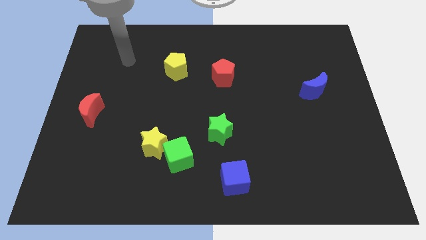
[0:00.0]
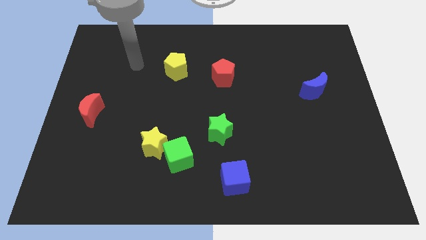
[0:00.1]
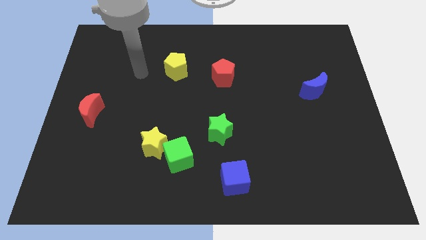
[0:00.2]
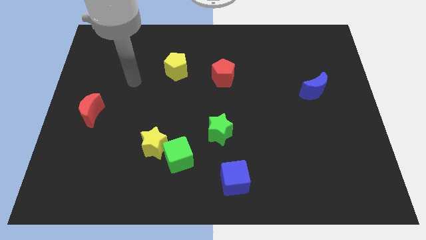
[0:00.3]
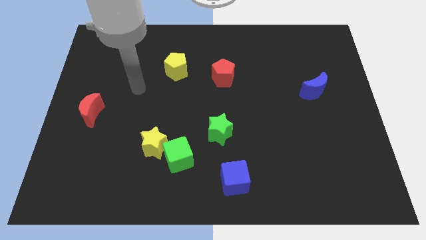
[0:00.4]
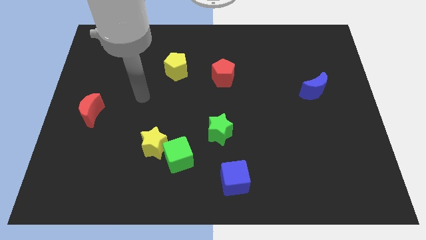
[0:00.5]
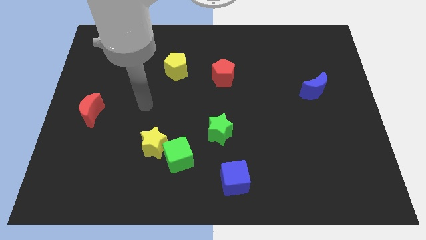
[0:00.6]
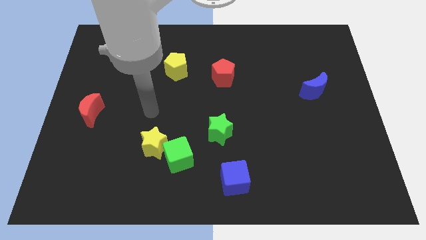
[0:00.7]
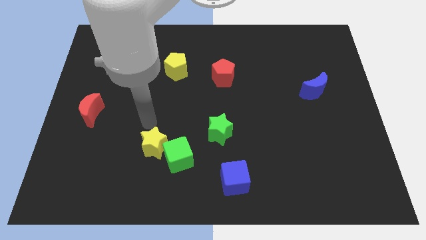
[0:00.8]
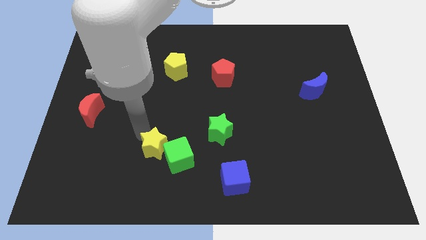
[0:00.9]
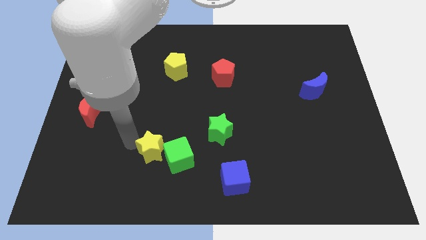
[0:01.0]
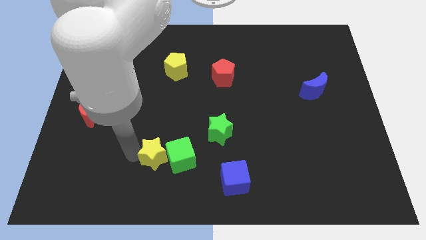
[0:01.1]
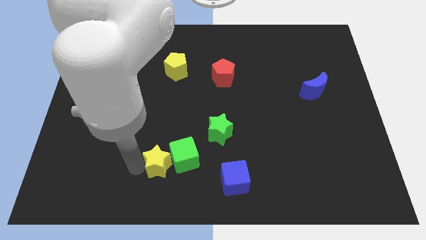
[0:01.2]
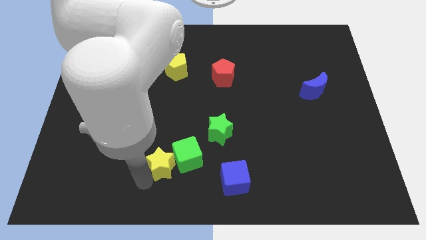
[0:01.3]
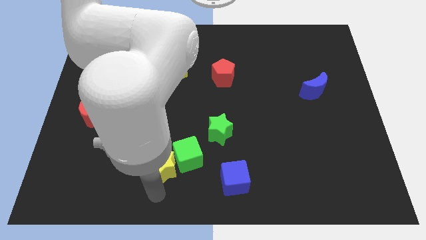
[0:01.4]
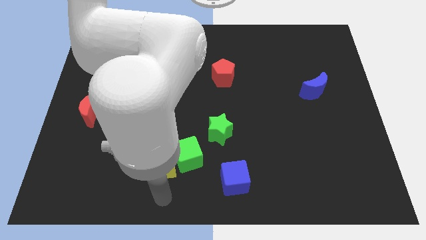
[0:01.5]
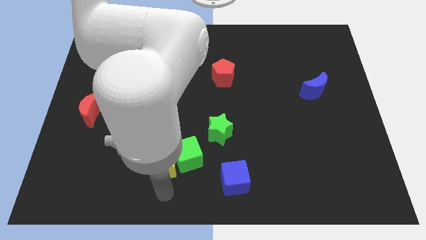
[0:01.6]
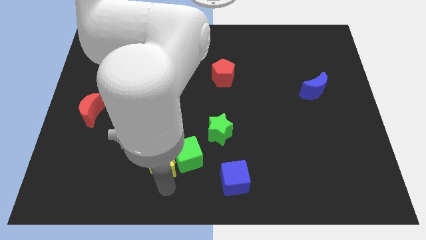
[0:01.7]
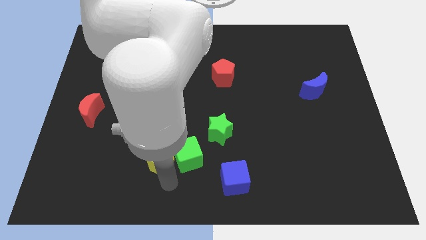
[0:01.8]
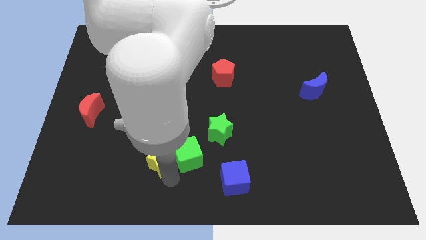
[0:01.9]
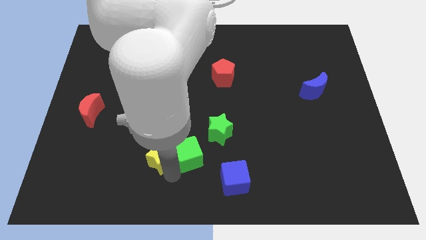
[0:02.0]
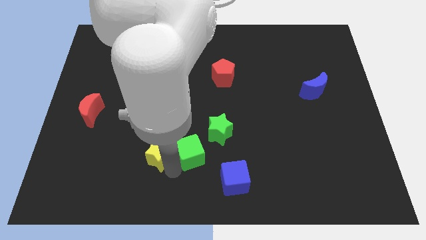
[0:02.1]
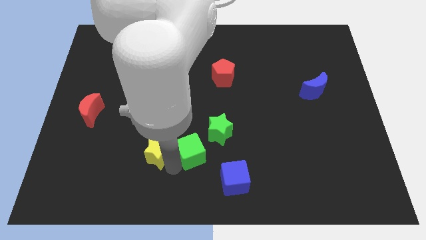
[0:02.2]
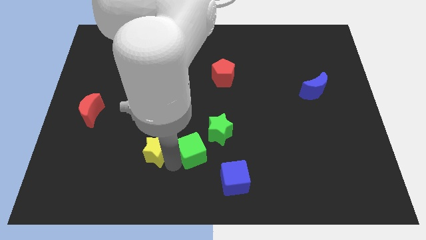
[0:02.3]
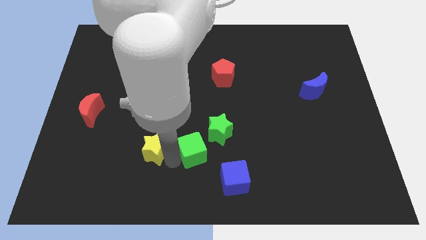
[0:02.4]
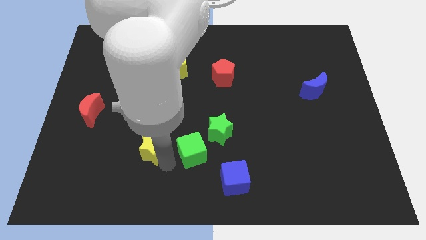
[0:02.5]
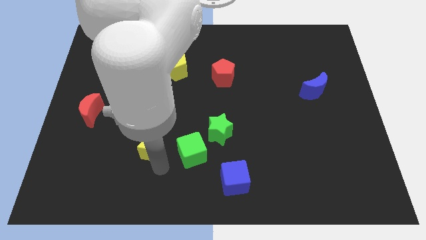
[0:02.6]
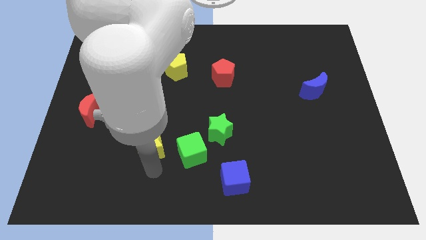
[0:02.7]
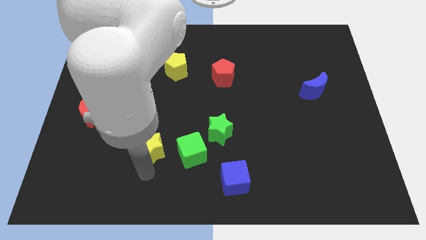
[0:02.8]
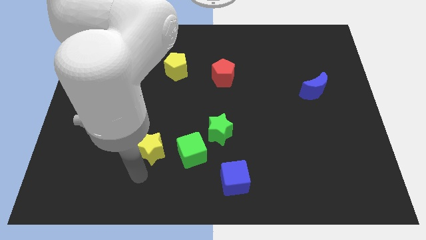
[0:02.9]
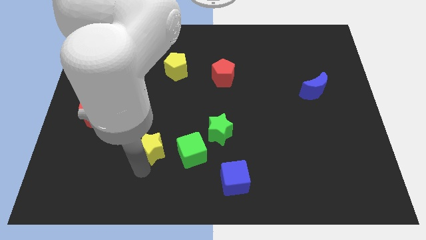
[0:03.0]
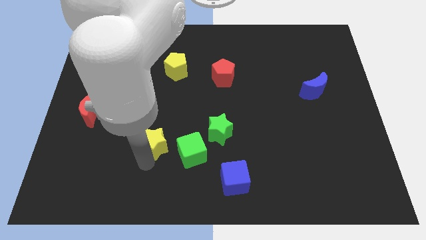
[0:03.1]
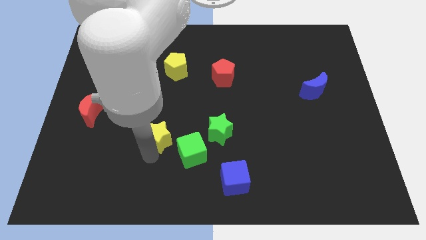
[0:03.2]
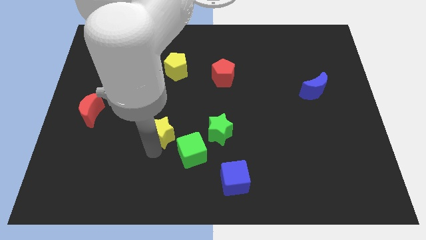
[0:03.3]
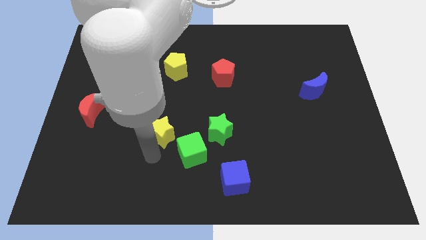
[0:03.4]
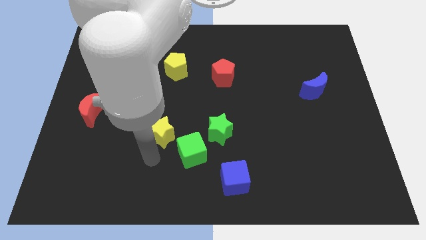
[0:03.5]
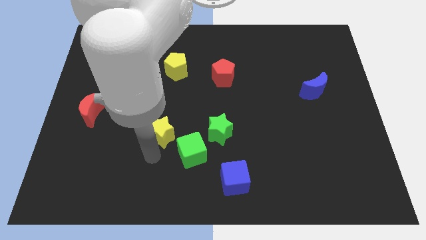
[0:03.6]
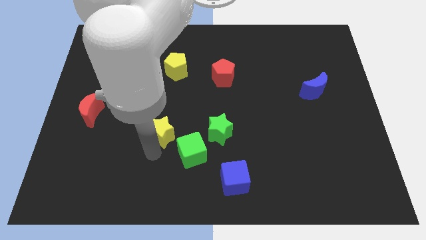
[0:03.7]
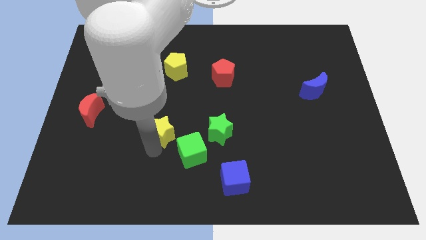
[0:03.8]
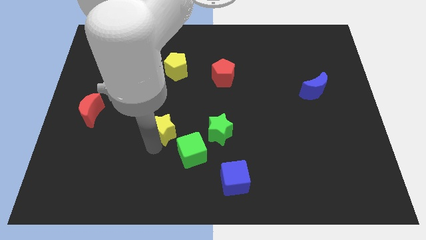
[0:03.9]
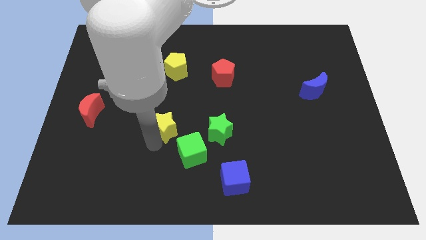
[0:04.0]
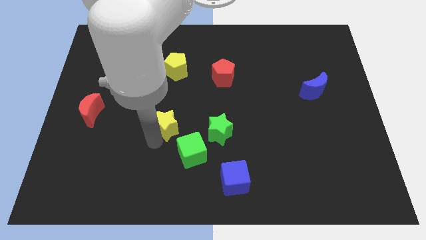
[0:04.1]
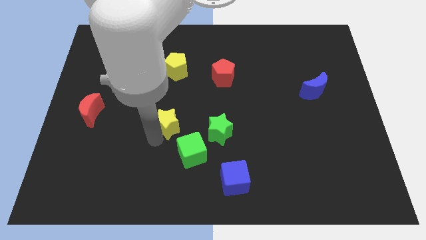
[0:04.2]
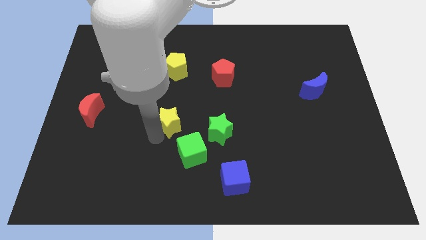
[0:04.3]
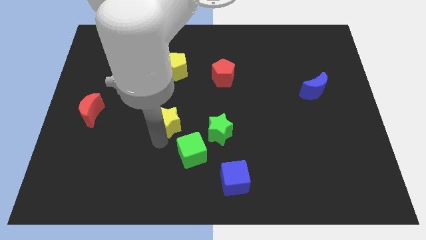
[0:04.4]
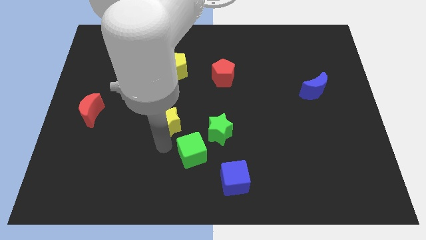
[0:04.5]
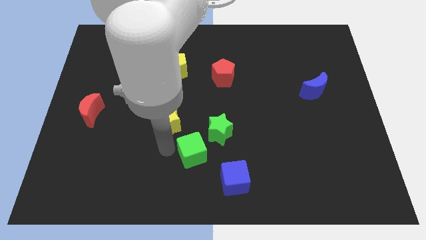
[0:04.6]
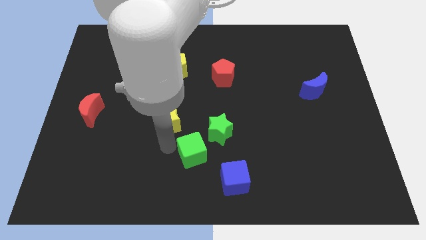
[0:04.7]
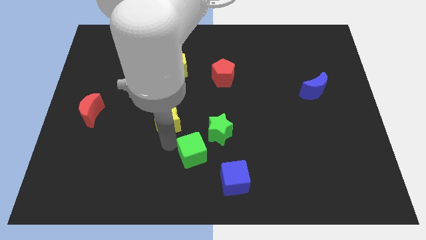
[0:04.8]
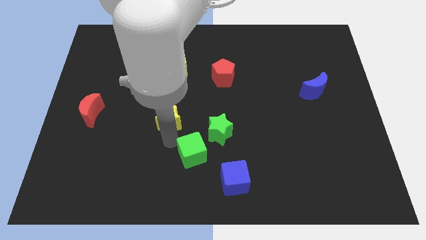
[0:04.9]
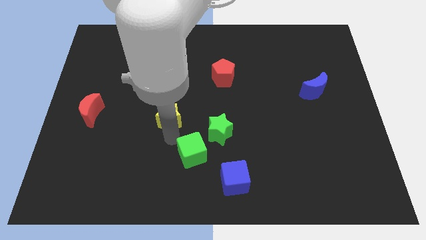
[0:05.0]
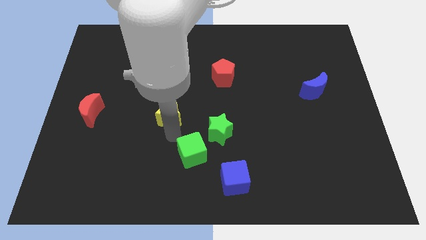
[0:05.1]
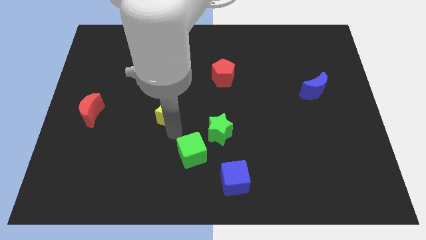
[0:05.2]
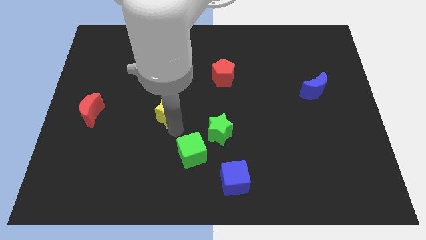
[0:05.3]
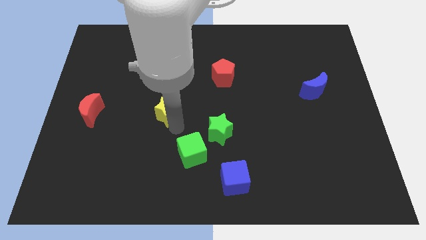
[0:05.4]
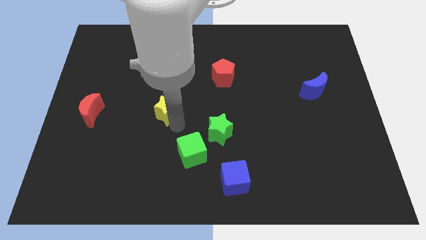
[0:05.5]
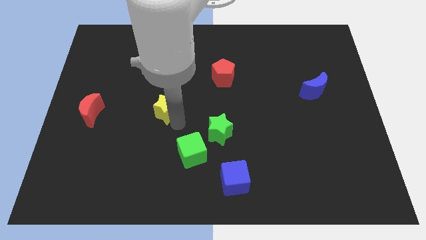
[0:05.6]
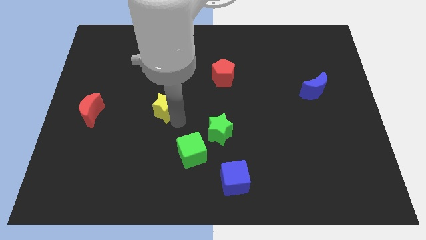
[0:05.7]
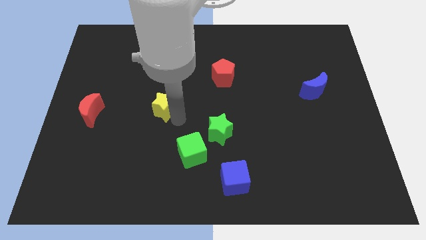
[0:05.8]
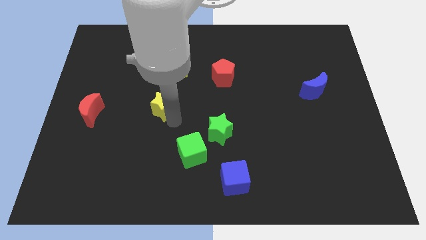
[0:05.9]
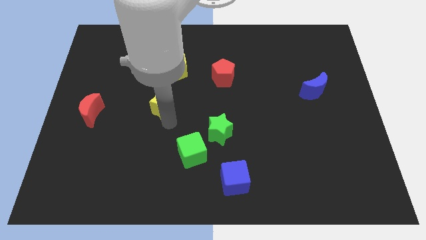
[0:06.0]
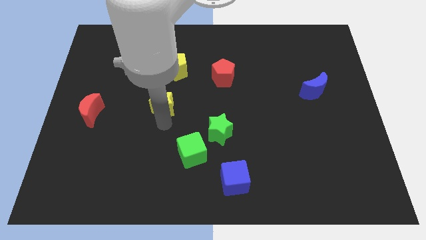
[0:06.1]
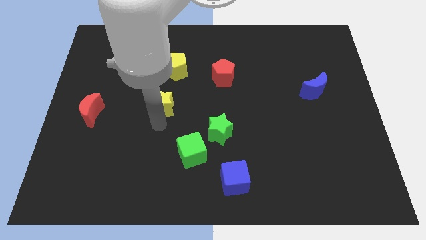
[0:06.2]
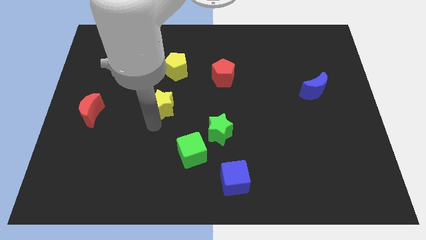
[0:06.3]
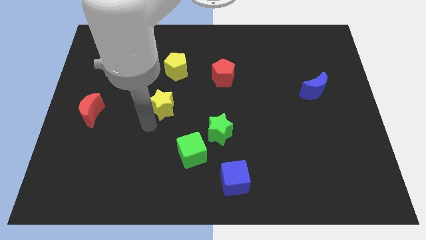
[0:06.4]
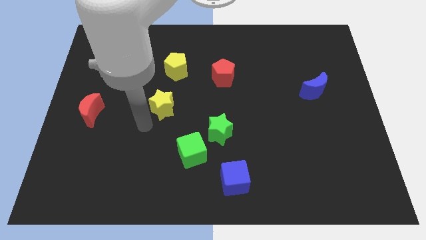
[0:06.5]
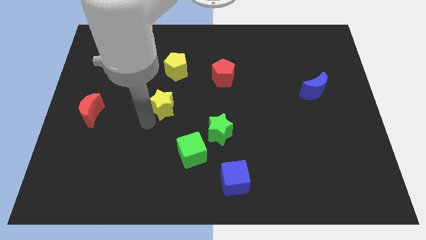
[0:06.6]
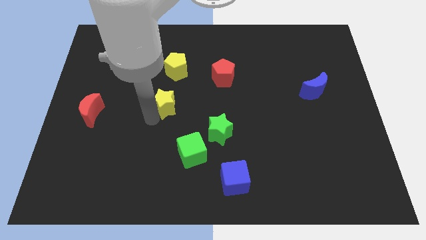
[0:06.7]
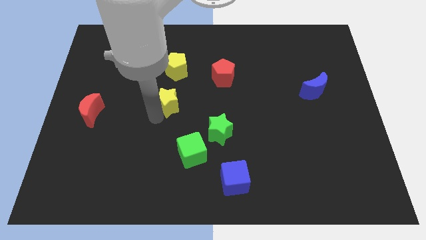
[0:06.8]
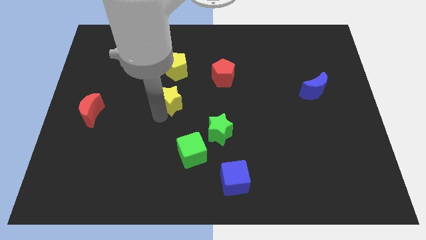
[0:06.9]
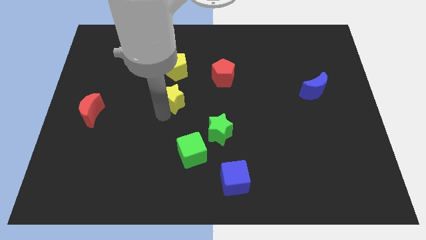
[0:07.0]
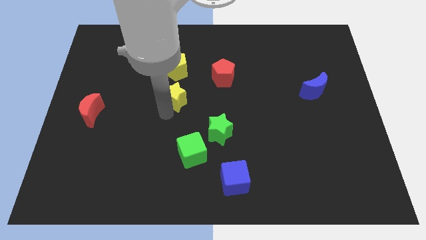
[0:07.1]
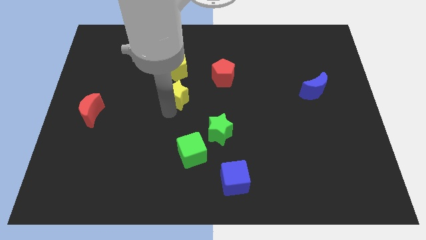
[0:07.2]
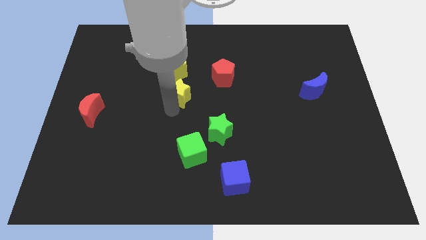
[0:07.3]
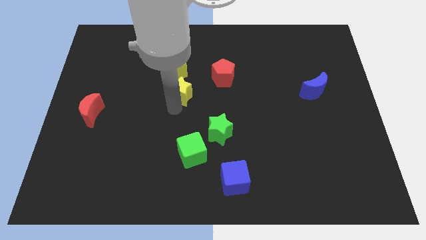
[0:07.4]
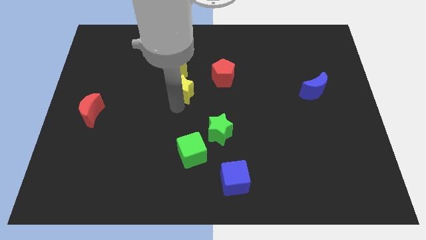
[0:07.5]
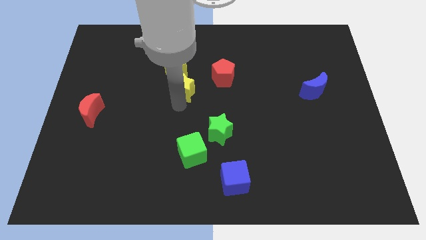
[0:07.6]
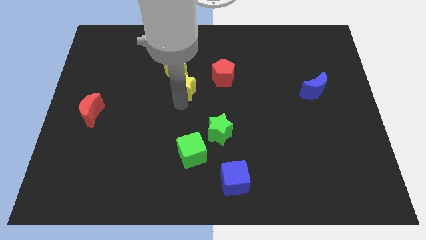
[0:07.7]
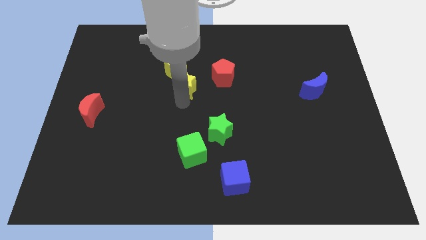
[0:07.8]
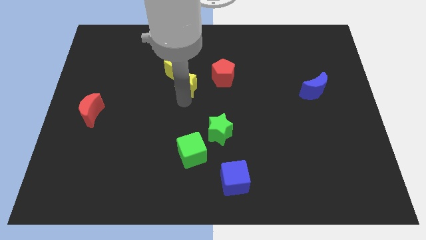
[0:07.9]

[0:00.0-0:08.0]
move the yellow star towards the yellow pentagon
